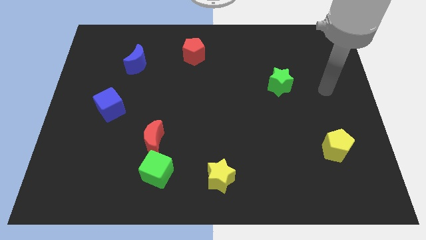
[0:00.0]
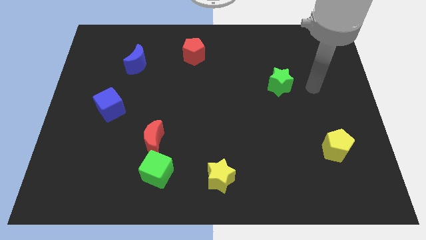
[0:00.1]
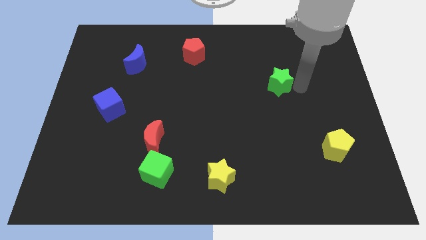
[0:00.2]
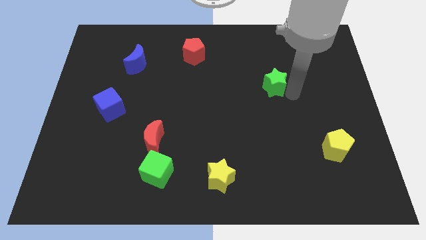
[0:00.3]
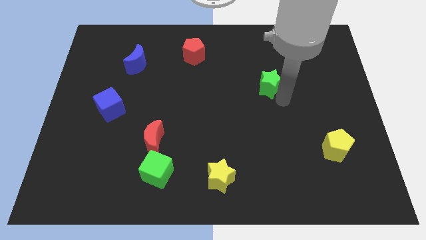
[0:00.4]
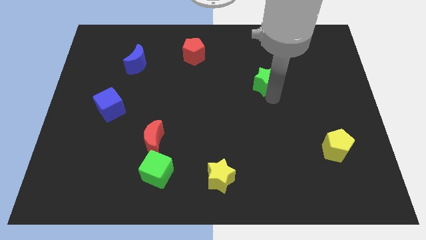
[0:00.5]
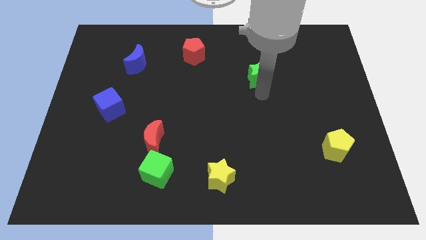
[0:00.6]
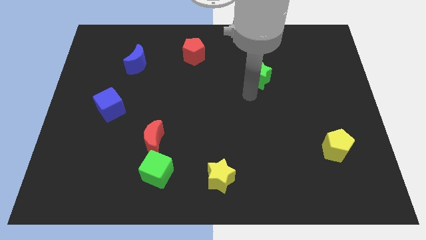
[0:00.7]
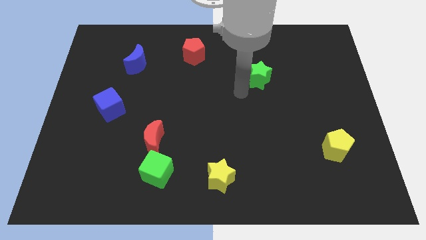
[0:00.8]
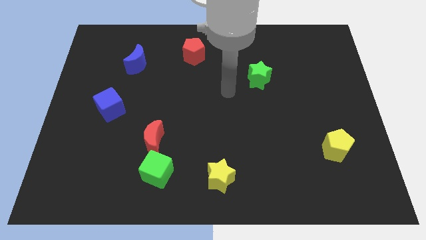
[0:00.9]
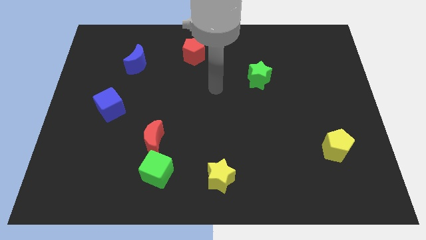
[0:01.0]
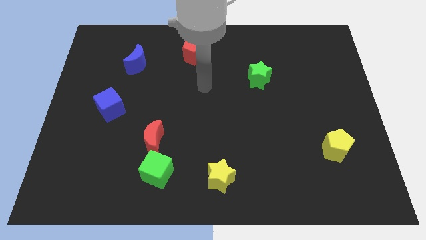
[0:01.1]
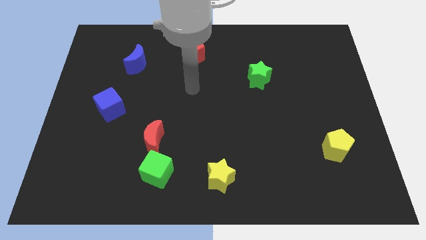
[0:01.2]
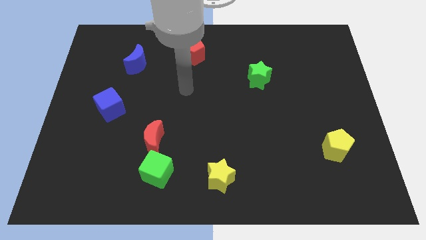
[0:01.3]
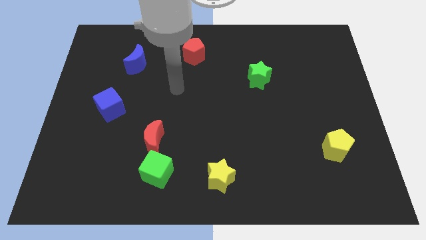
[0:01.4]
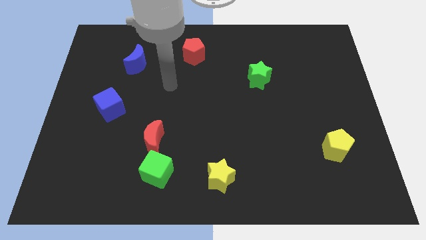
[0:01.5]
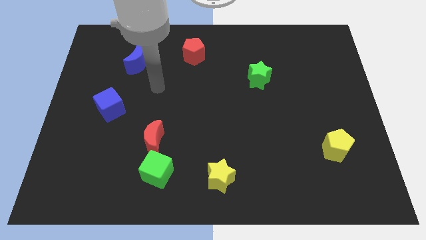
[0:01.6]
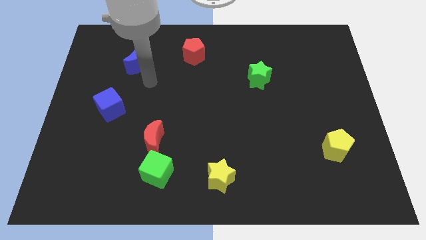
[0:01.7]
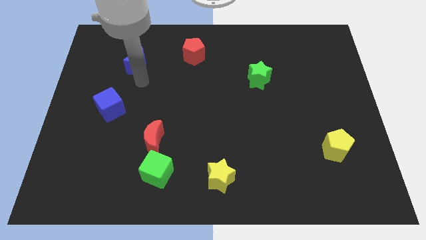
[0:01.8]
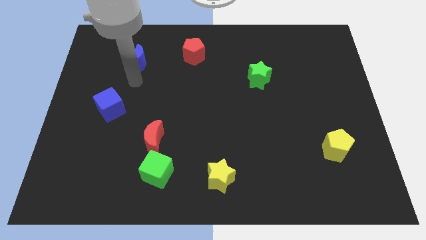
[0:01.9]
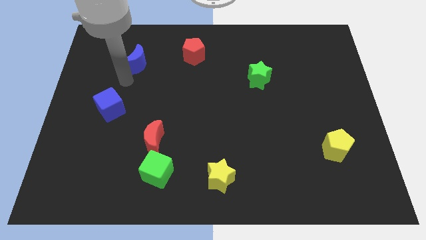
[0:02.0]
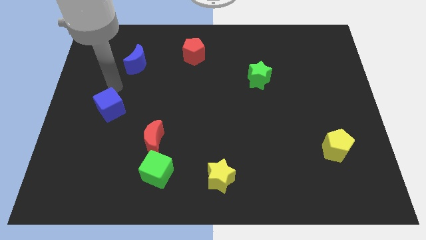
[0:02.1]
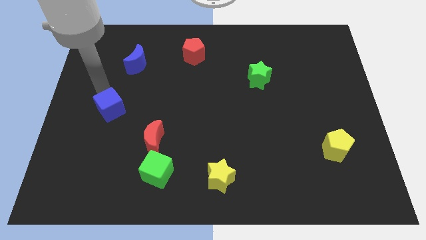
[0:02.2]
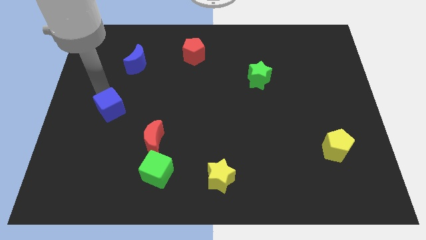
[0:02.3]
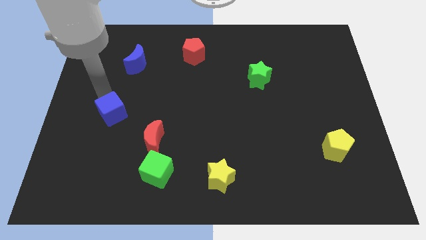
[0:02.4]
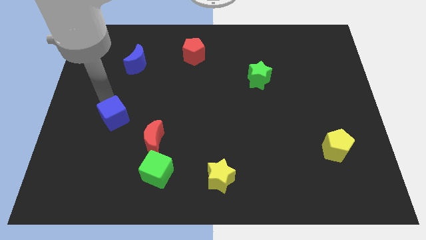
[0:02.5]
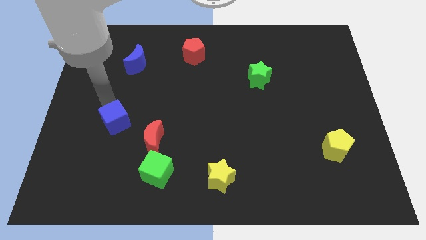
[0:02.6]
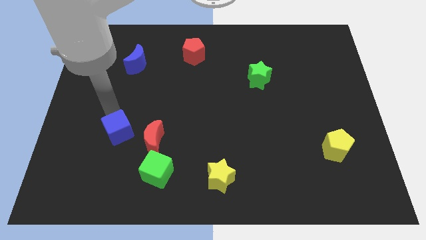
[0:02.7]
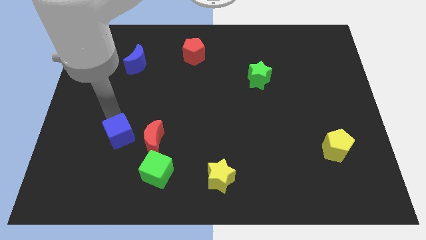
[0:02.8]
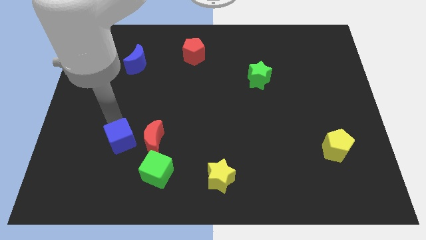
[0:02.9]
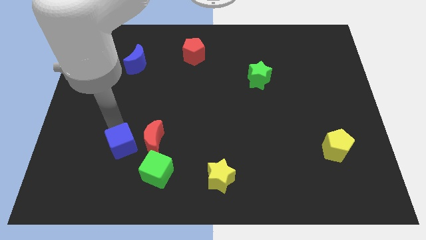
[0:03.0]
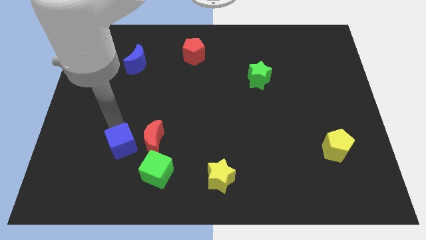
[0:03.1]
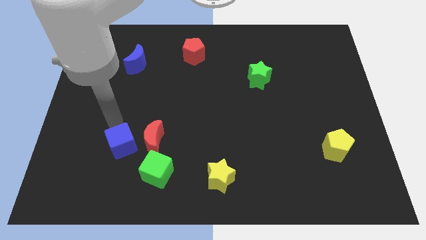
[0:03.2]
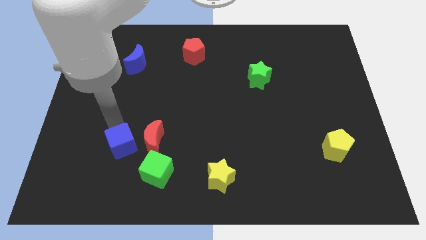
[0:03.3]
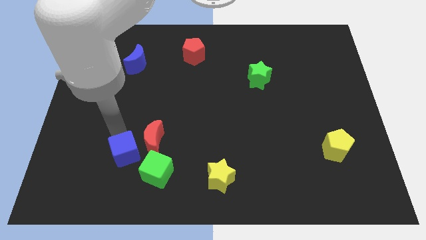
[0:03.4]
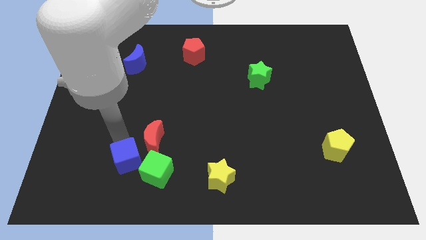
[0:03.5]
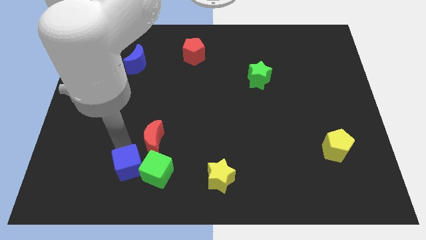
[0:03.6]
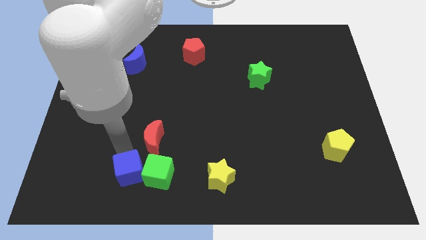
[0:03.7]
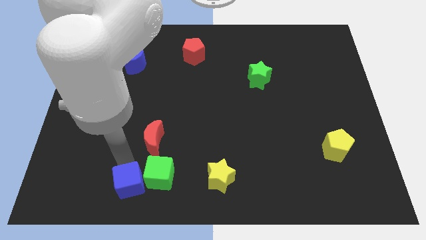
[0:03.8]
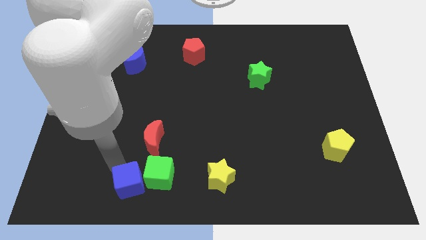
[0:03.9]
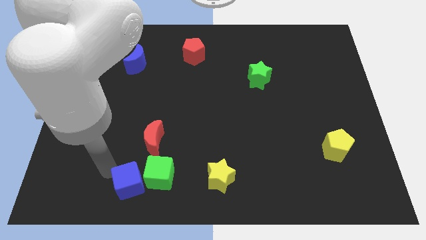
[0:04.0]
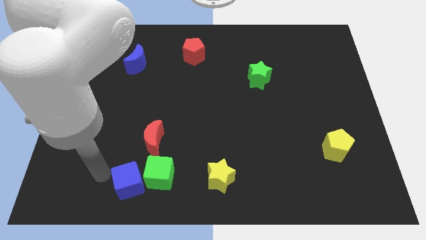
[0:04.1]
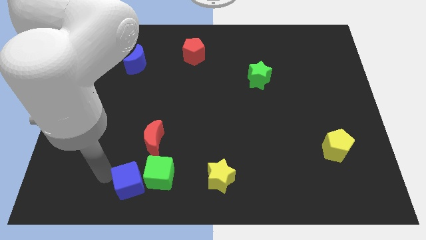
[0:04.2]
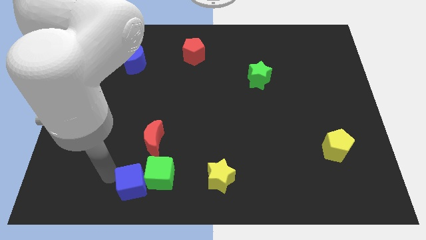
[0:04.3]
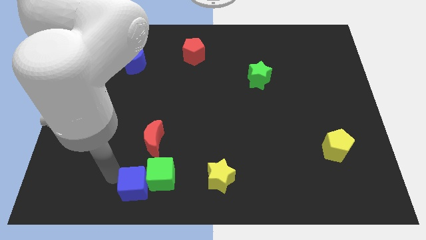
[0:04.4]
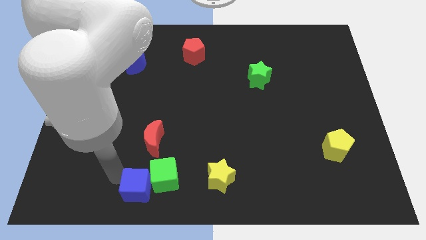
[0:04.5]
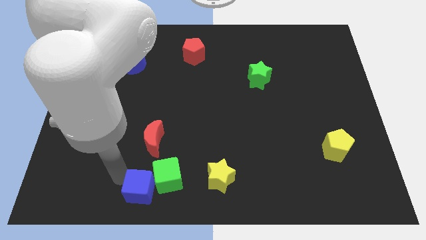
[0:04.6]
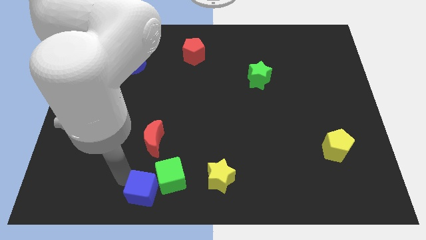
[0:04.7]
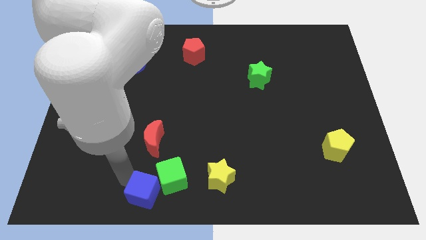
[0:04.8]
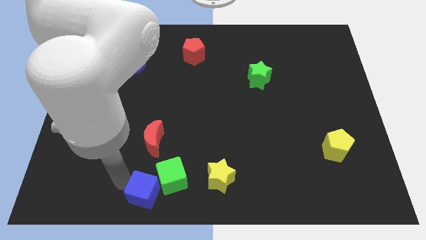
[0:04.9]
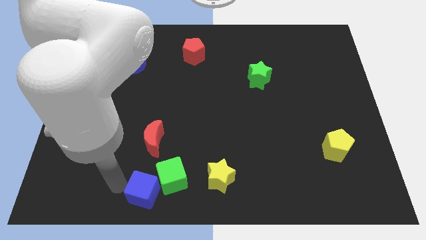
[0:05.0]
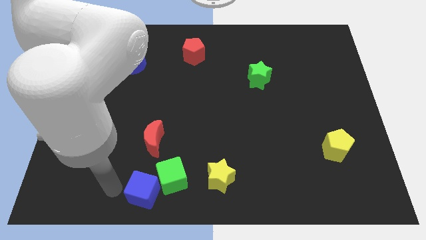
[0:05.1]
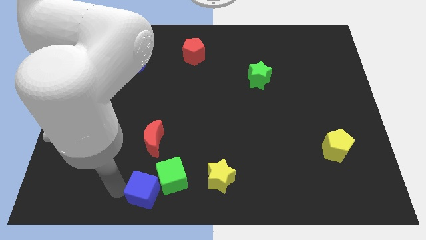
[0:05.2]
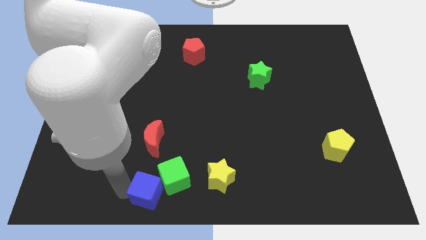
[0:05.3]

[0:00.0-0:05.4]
put the blue cube to the bottom

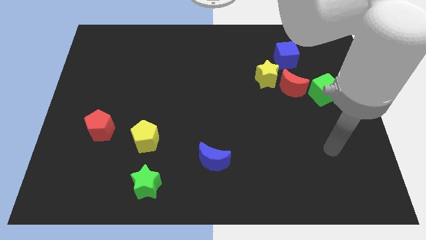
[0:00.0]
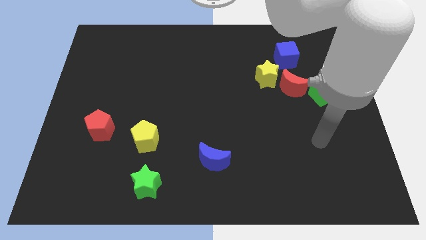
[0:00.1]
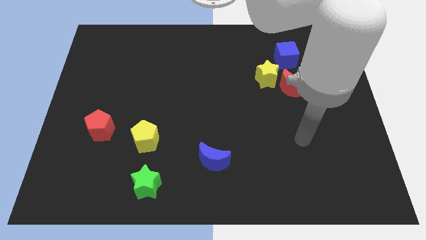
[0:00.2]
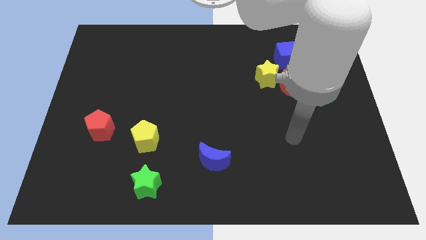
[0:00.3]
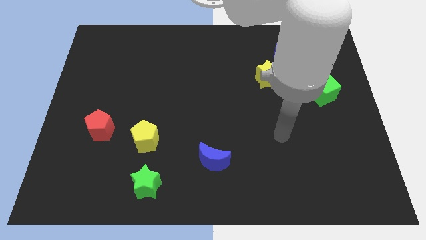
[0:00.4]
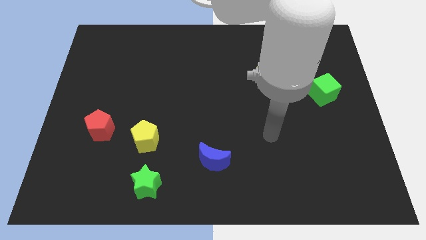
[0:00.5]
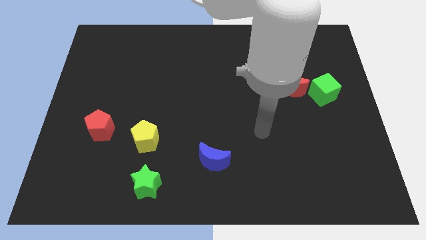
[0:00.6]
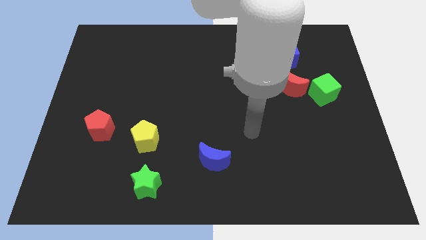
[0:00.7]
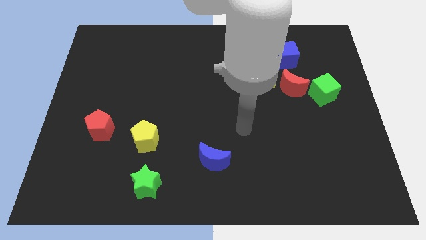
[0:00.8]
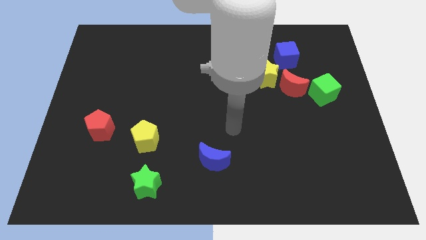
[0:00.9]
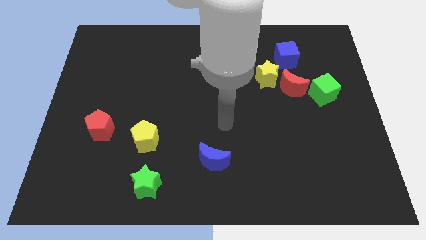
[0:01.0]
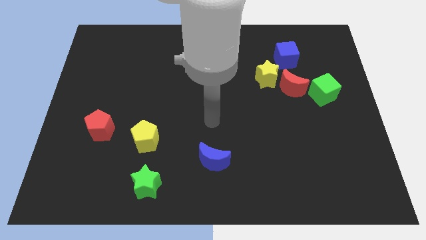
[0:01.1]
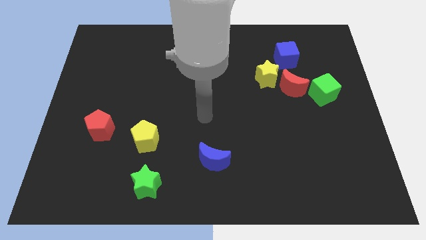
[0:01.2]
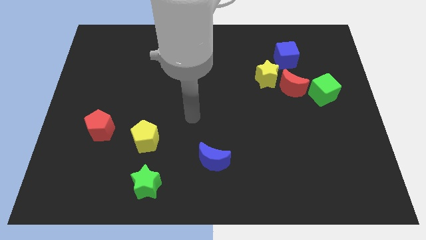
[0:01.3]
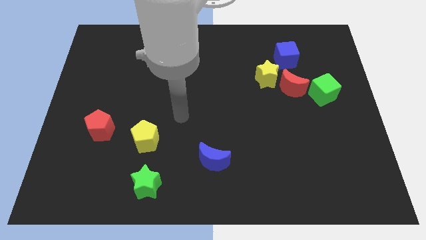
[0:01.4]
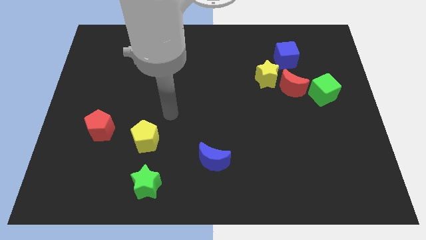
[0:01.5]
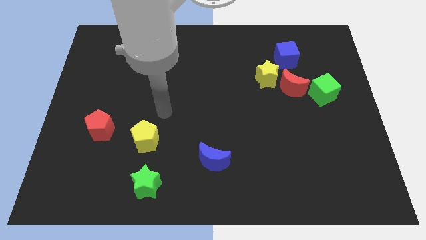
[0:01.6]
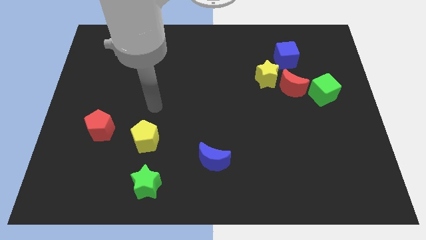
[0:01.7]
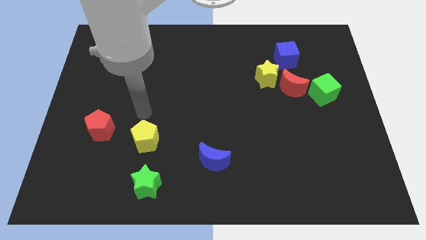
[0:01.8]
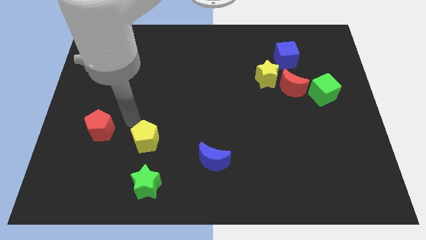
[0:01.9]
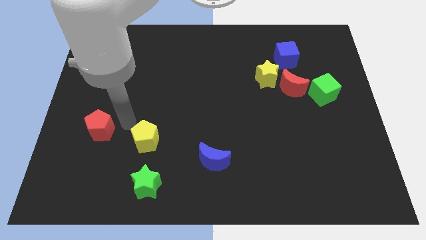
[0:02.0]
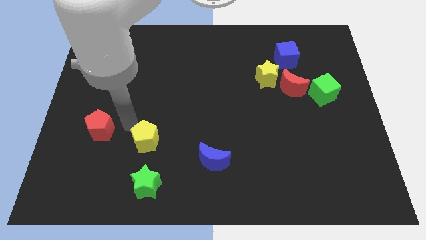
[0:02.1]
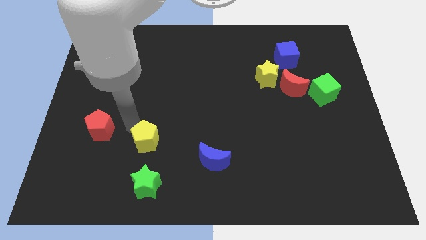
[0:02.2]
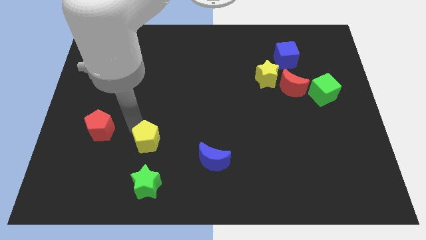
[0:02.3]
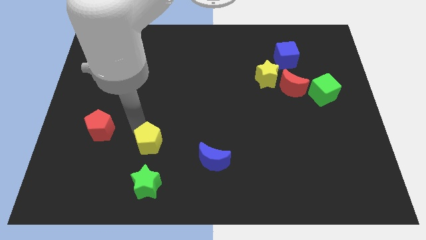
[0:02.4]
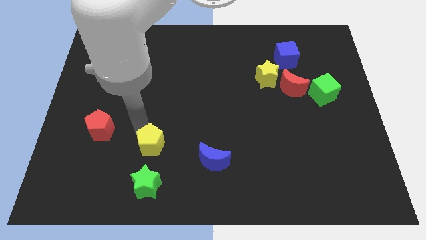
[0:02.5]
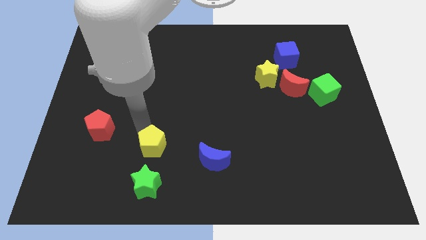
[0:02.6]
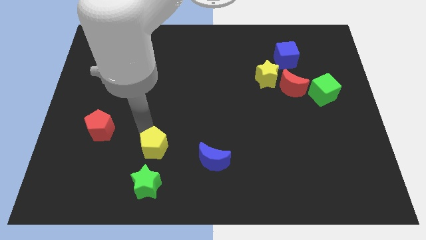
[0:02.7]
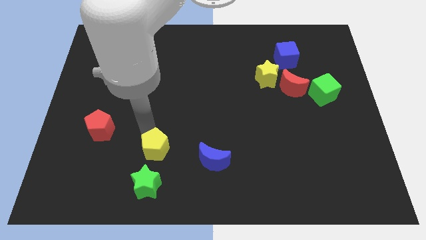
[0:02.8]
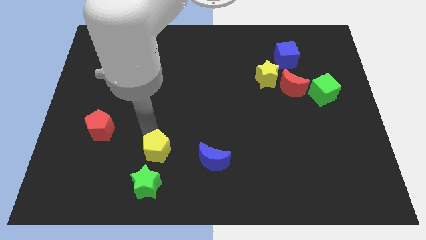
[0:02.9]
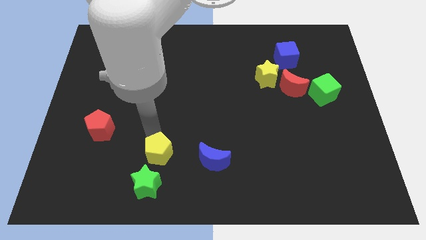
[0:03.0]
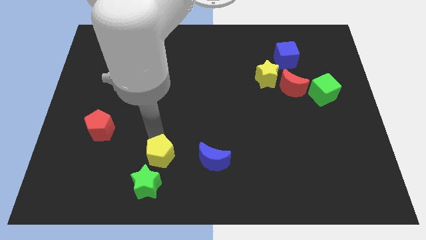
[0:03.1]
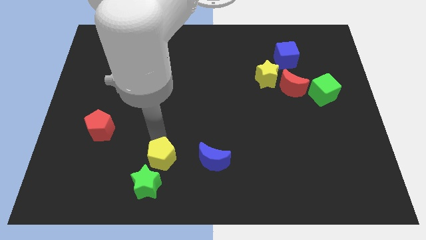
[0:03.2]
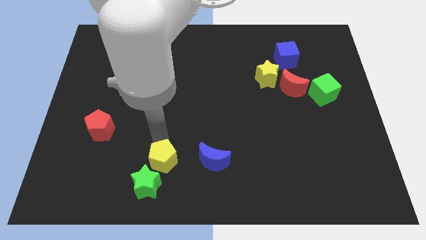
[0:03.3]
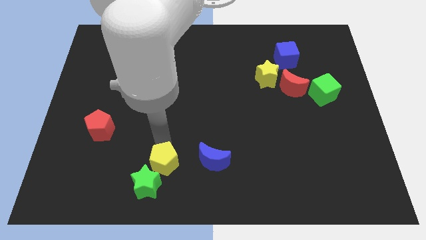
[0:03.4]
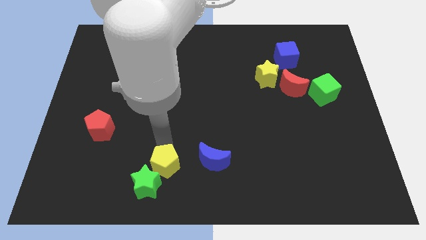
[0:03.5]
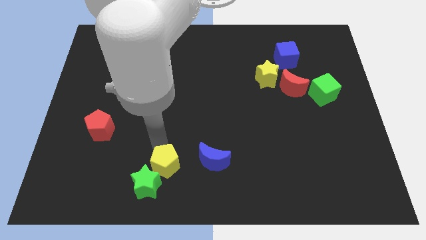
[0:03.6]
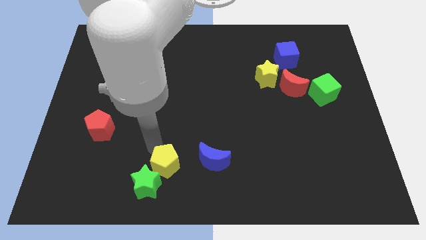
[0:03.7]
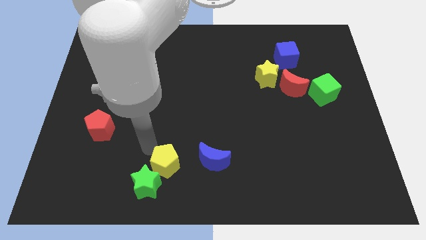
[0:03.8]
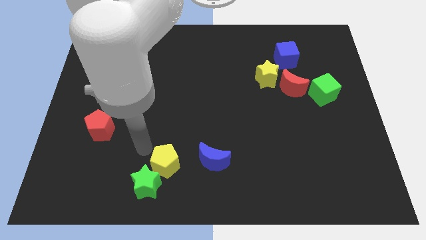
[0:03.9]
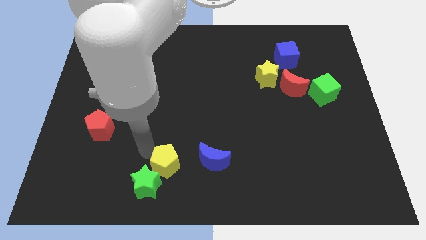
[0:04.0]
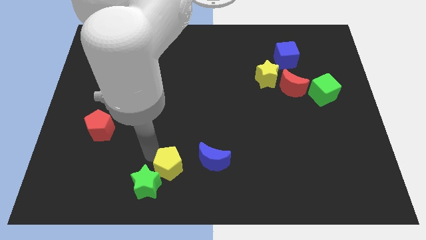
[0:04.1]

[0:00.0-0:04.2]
move the yellow pentagon to the bottom side
